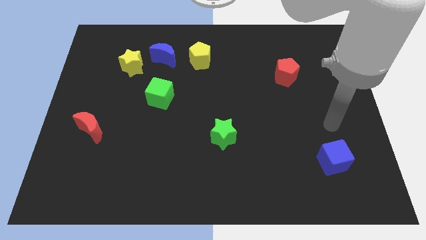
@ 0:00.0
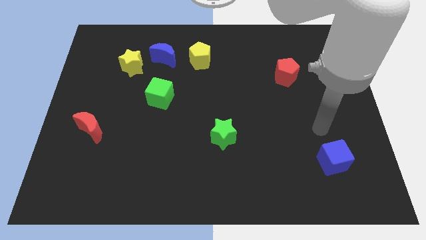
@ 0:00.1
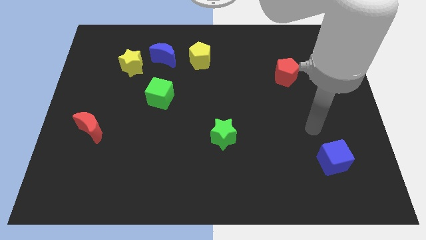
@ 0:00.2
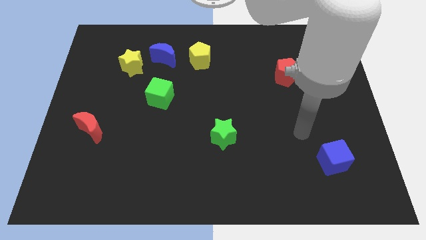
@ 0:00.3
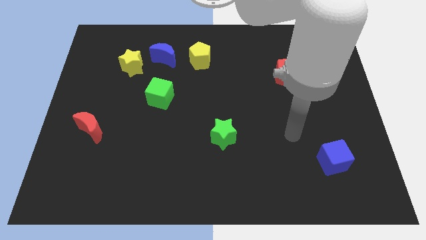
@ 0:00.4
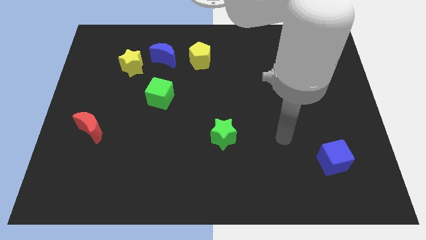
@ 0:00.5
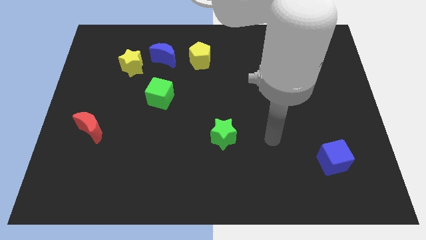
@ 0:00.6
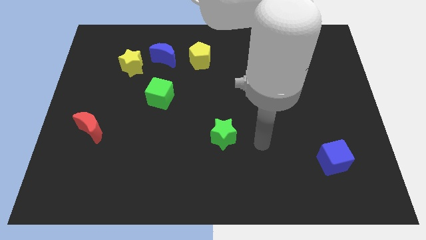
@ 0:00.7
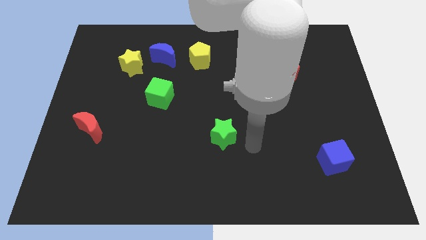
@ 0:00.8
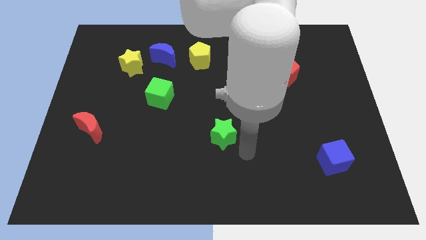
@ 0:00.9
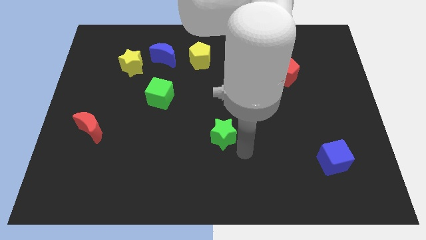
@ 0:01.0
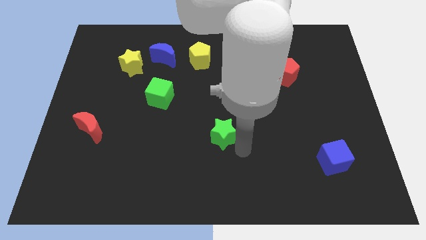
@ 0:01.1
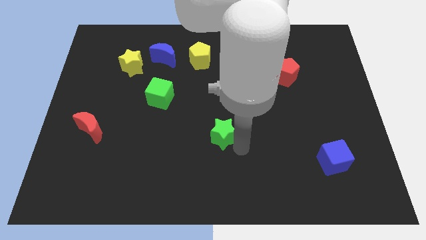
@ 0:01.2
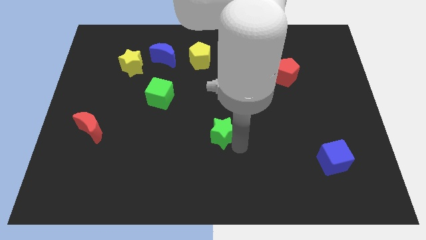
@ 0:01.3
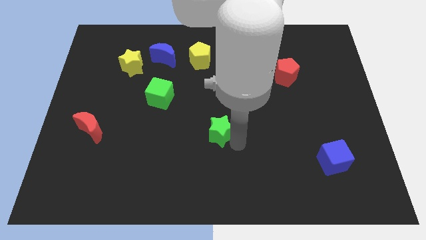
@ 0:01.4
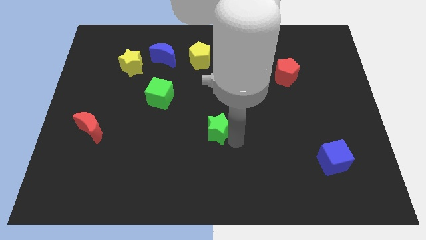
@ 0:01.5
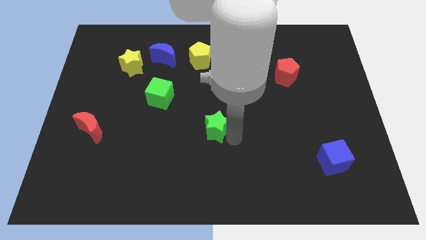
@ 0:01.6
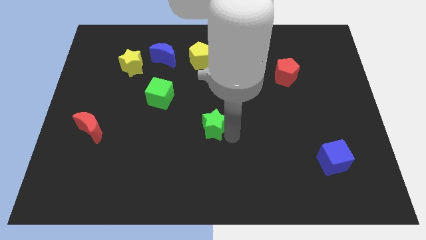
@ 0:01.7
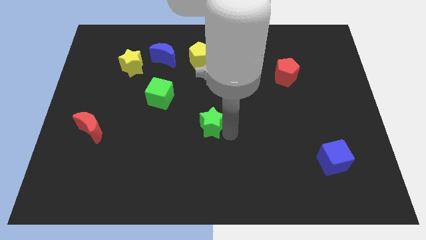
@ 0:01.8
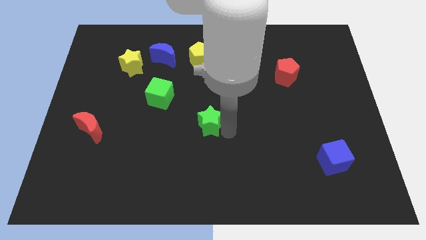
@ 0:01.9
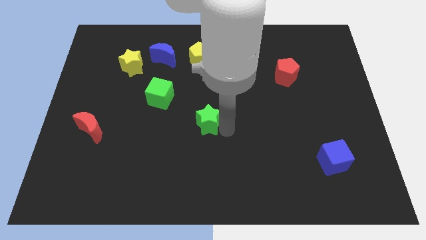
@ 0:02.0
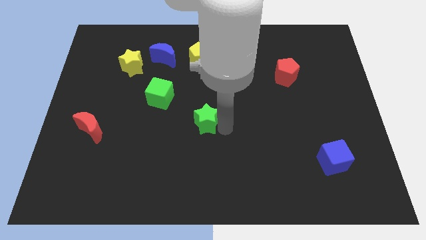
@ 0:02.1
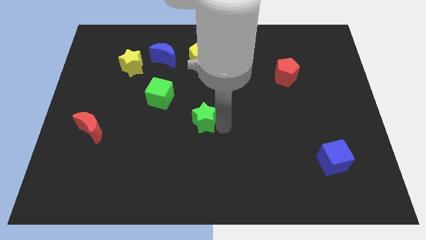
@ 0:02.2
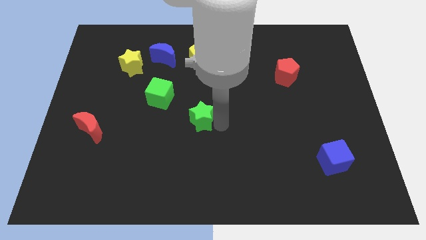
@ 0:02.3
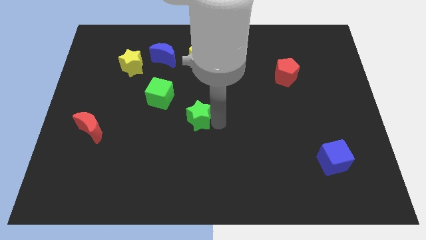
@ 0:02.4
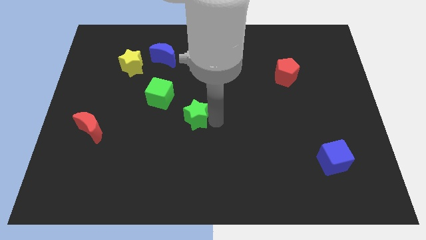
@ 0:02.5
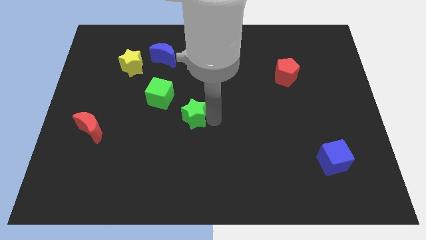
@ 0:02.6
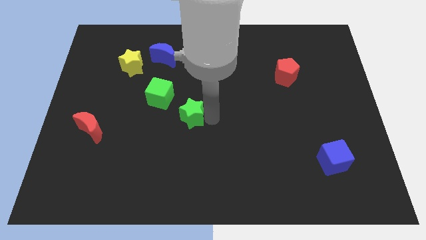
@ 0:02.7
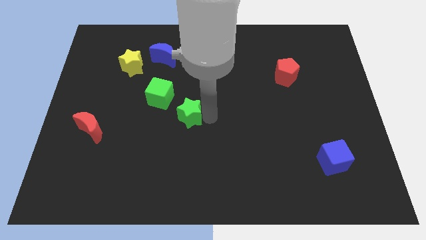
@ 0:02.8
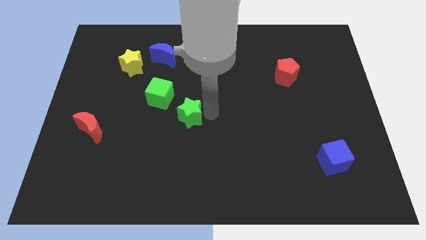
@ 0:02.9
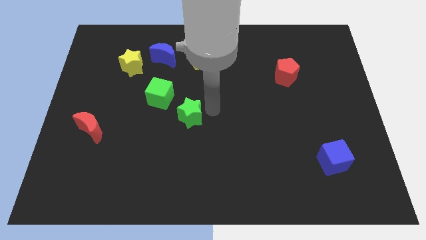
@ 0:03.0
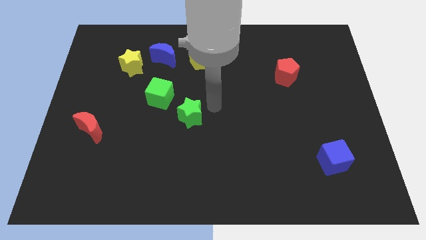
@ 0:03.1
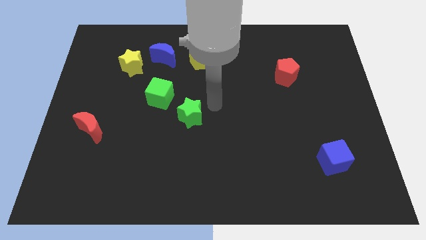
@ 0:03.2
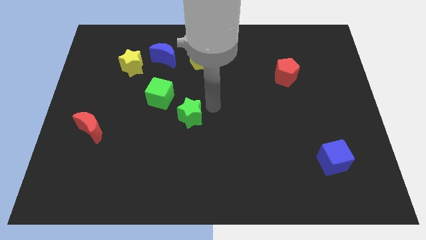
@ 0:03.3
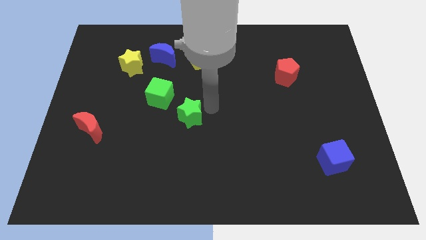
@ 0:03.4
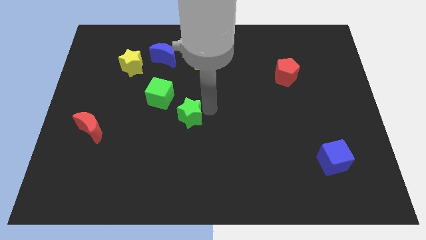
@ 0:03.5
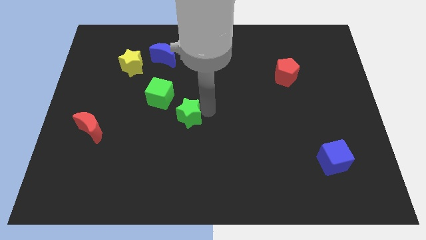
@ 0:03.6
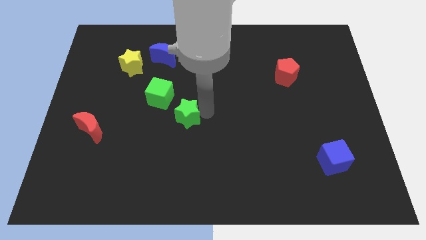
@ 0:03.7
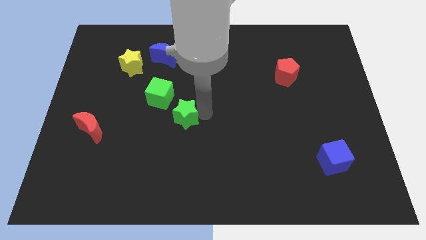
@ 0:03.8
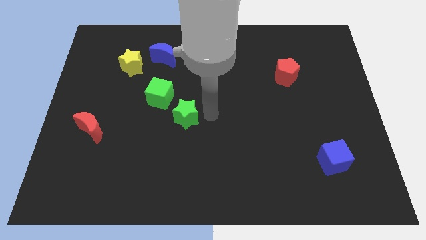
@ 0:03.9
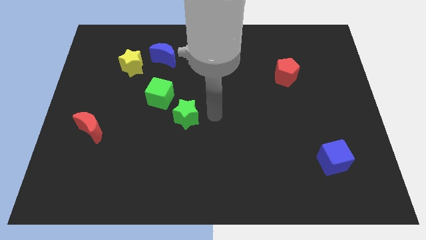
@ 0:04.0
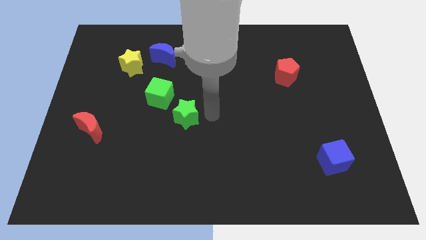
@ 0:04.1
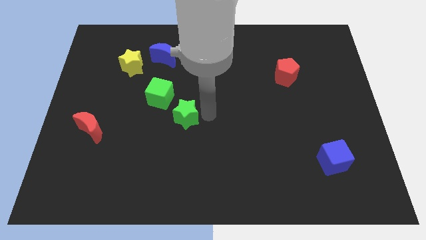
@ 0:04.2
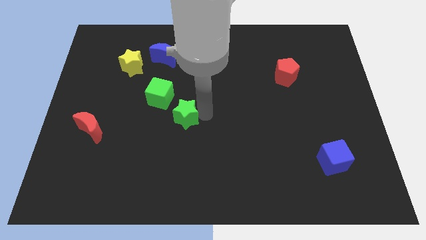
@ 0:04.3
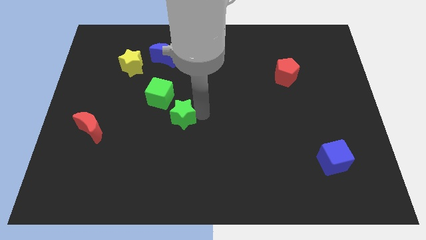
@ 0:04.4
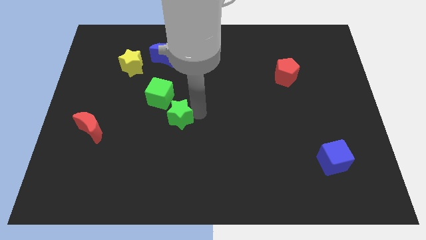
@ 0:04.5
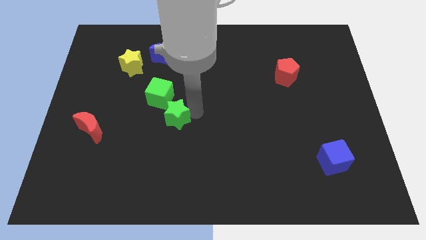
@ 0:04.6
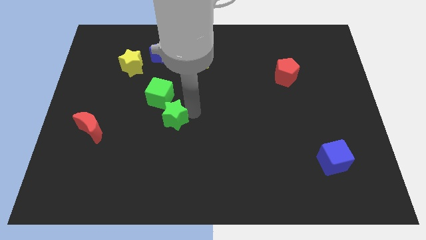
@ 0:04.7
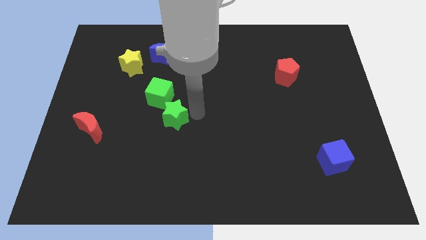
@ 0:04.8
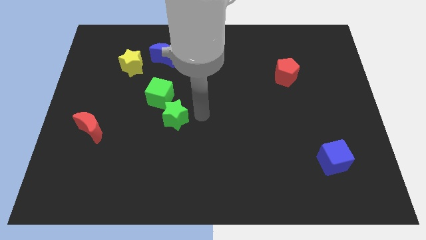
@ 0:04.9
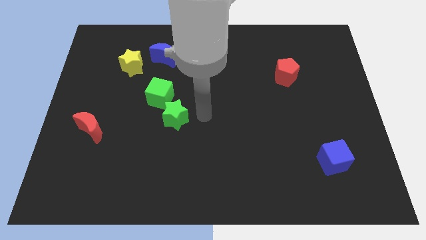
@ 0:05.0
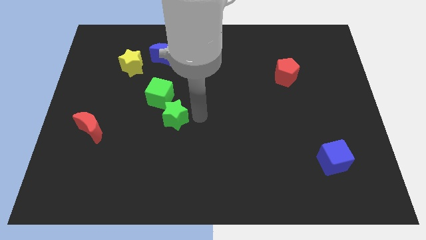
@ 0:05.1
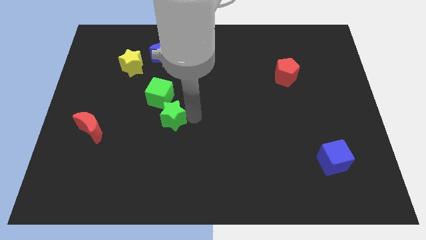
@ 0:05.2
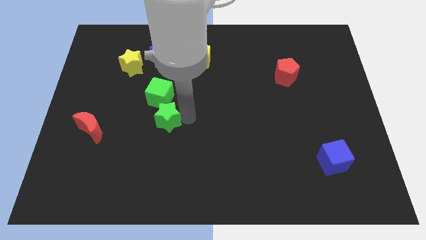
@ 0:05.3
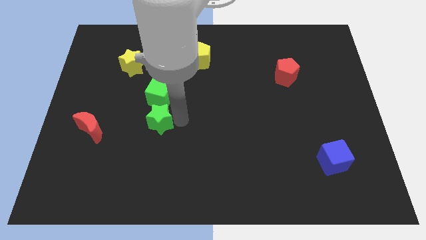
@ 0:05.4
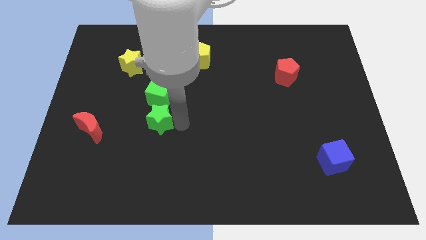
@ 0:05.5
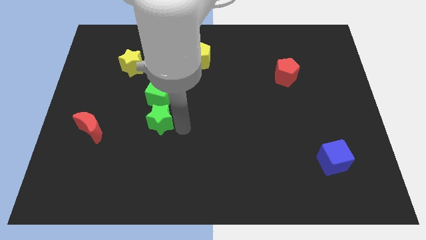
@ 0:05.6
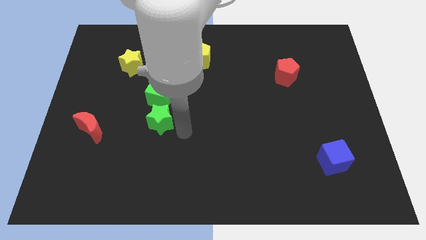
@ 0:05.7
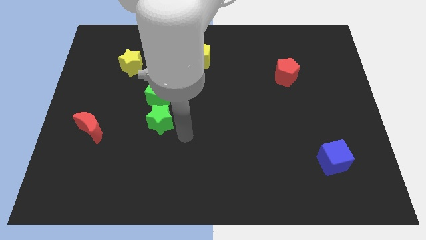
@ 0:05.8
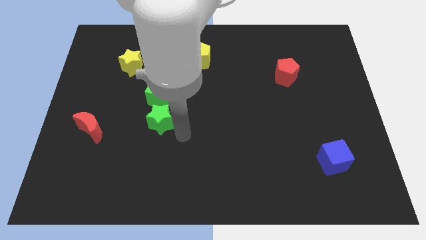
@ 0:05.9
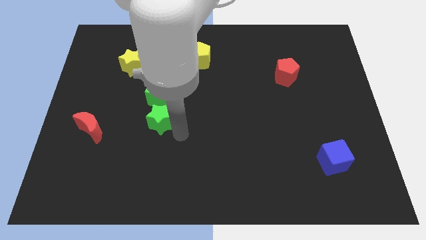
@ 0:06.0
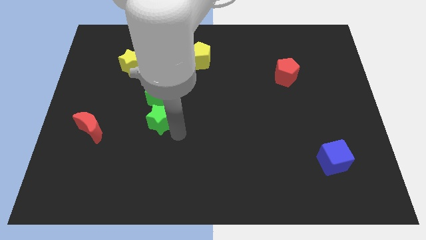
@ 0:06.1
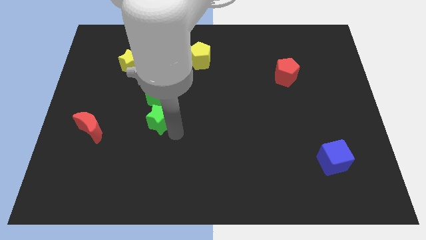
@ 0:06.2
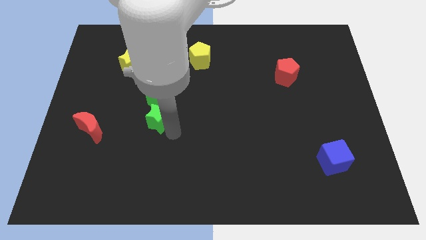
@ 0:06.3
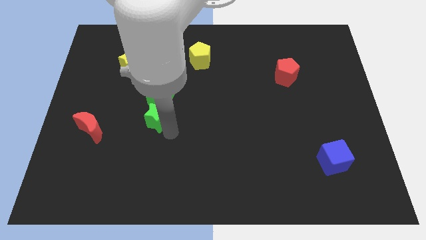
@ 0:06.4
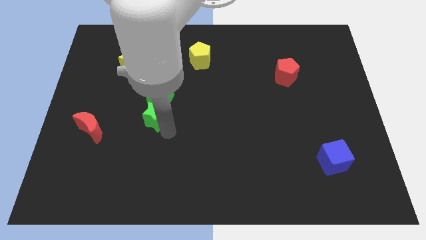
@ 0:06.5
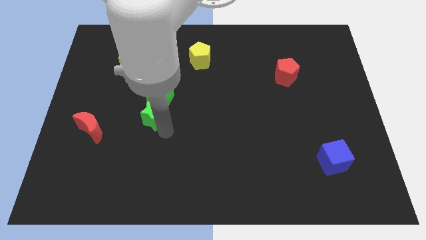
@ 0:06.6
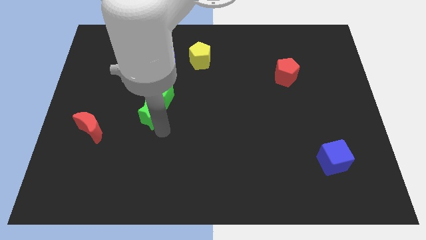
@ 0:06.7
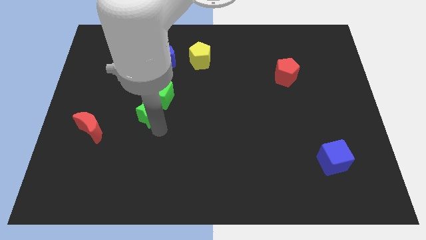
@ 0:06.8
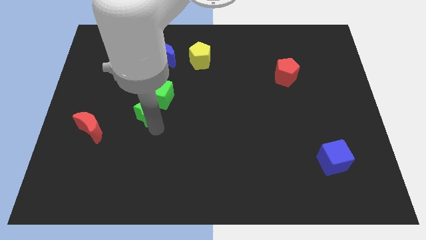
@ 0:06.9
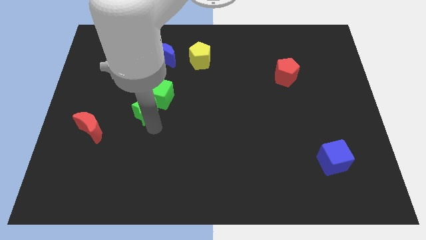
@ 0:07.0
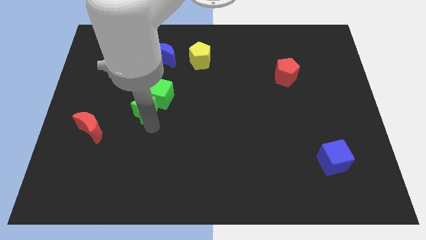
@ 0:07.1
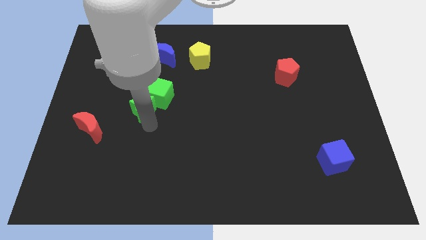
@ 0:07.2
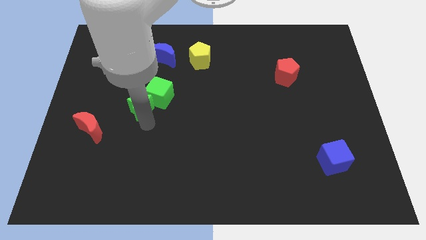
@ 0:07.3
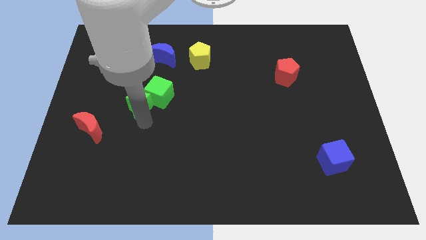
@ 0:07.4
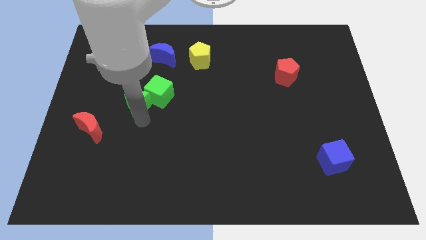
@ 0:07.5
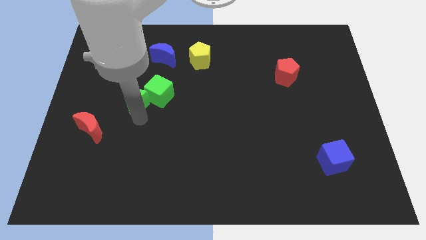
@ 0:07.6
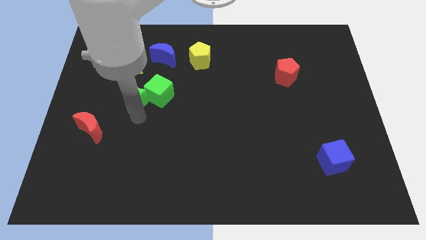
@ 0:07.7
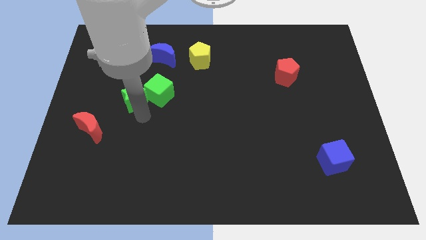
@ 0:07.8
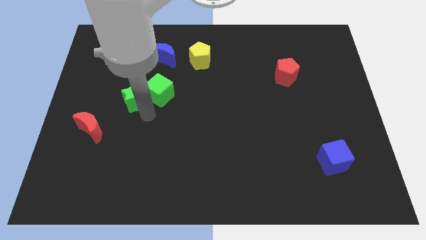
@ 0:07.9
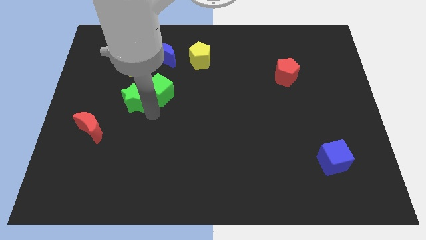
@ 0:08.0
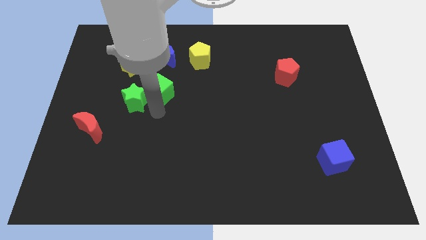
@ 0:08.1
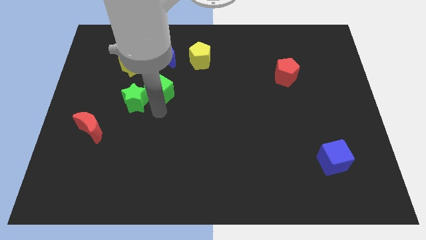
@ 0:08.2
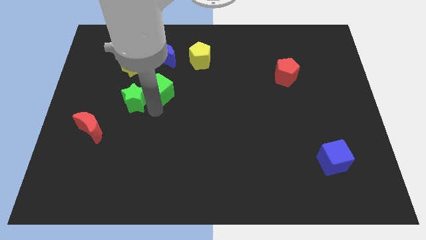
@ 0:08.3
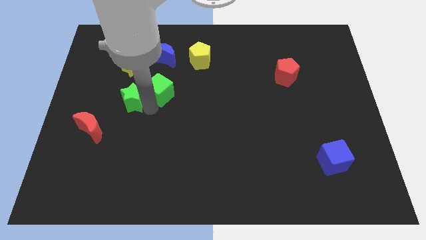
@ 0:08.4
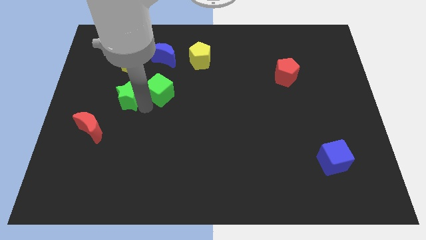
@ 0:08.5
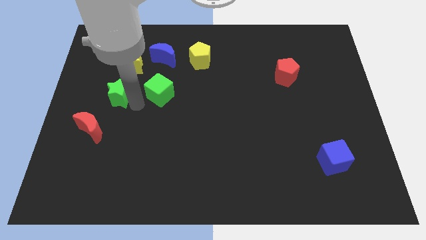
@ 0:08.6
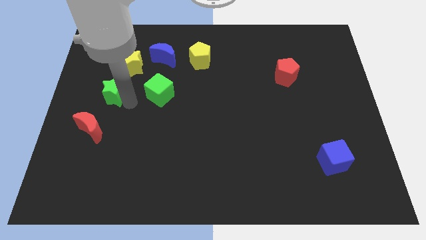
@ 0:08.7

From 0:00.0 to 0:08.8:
put the green star diagonally down and to the left of the yellow star
